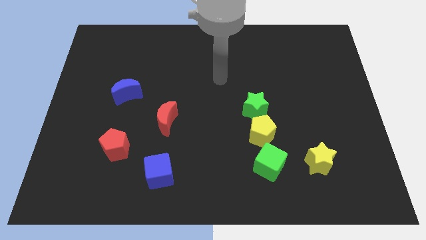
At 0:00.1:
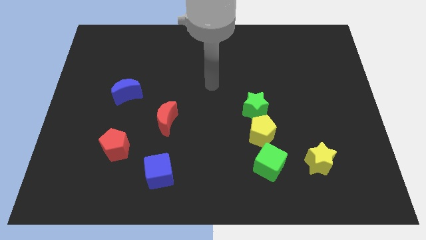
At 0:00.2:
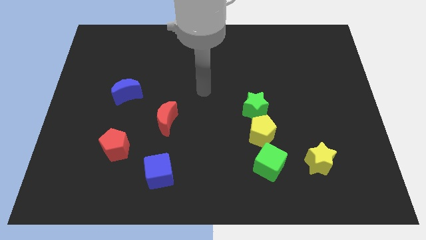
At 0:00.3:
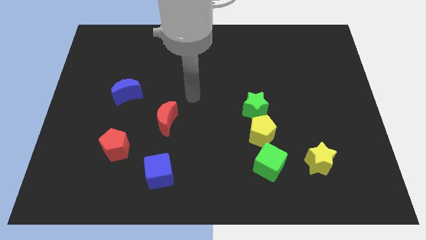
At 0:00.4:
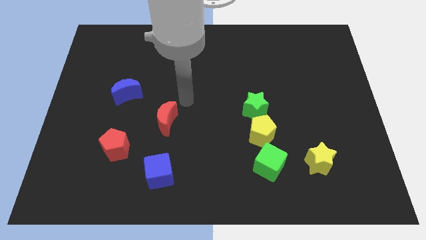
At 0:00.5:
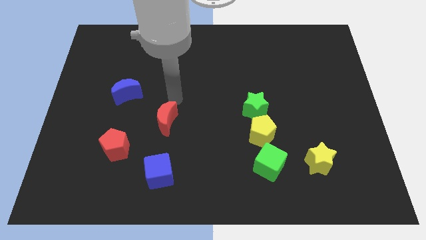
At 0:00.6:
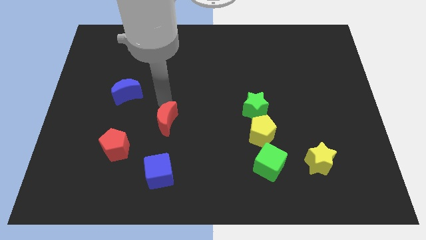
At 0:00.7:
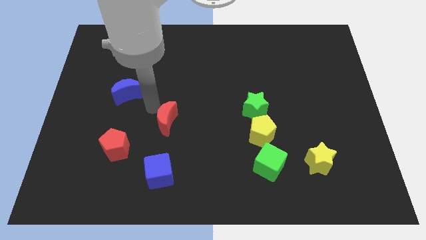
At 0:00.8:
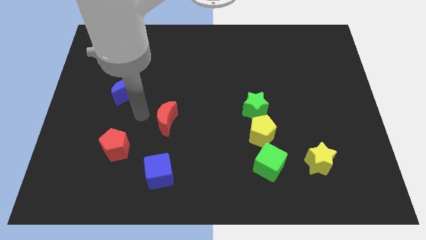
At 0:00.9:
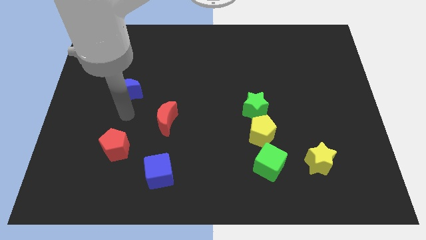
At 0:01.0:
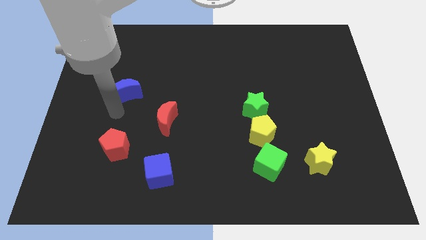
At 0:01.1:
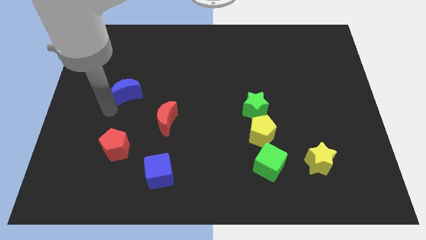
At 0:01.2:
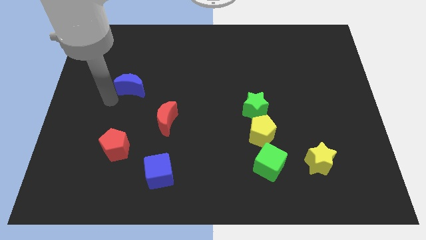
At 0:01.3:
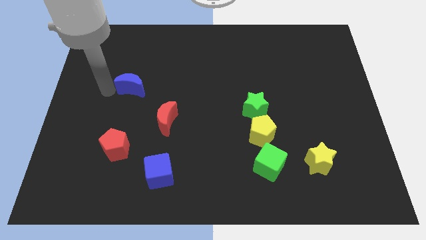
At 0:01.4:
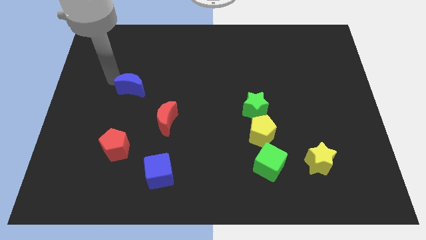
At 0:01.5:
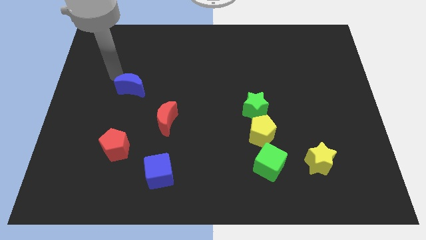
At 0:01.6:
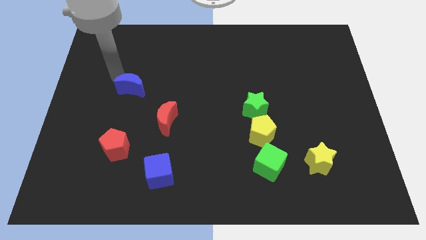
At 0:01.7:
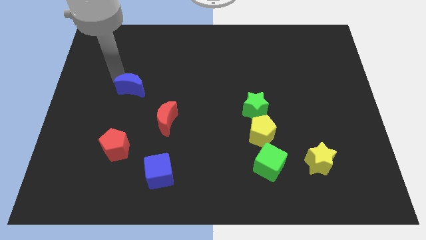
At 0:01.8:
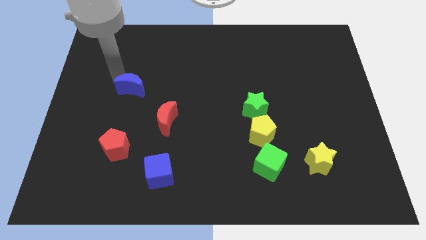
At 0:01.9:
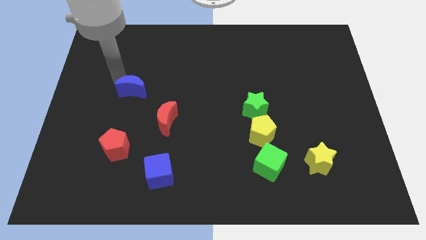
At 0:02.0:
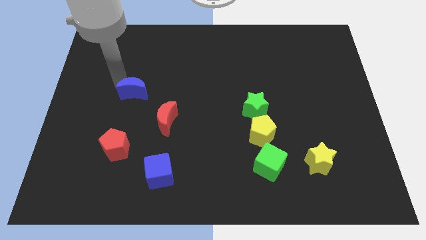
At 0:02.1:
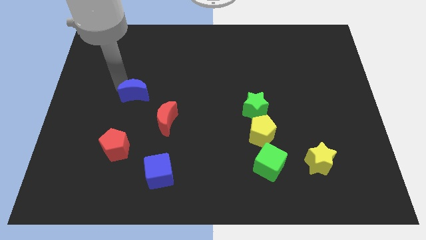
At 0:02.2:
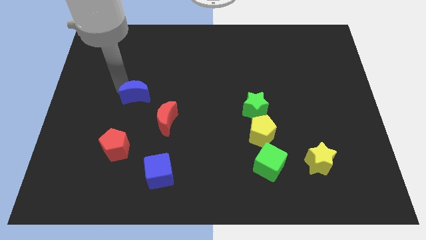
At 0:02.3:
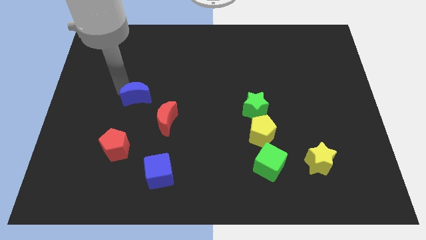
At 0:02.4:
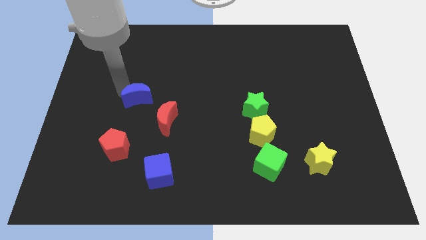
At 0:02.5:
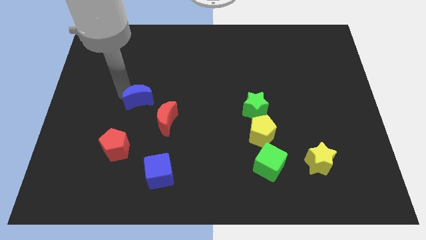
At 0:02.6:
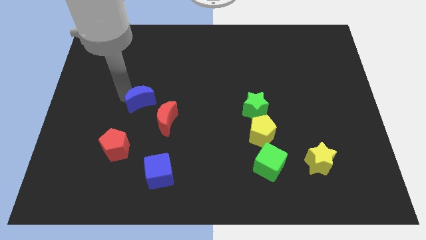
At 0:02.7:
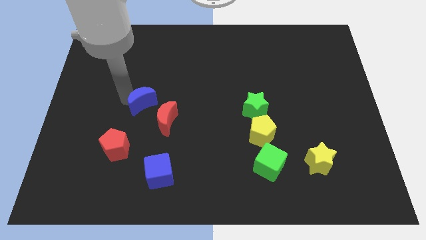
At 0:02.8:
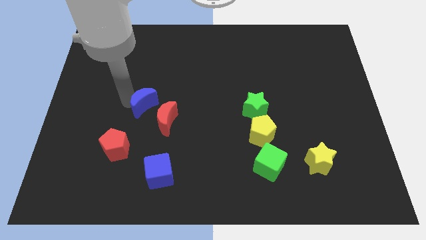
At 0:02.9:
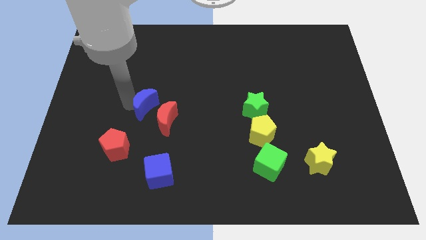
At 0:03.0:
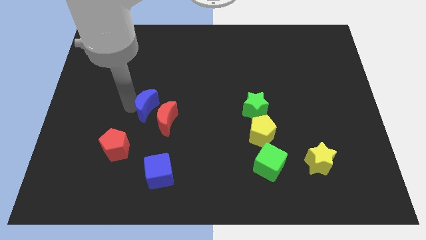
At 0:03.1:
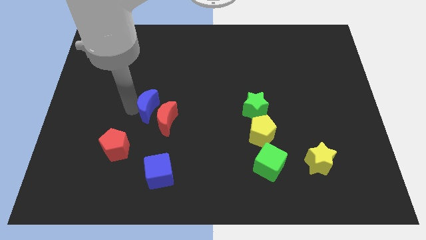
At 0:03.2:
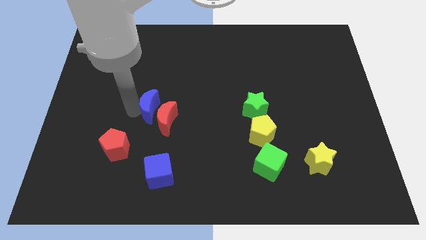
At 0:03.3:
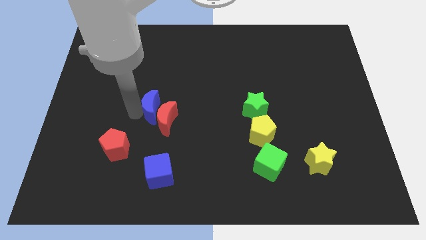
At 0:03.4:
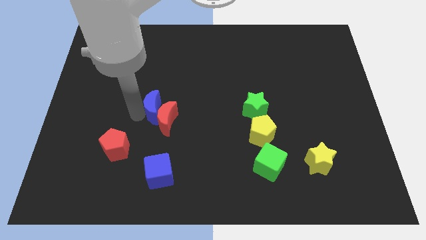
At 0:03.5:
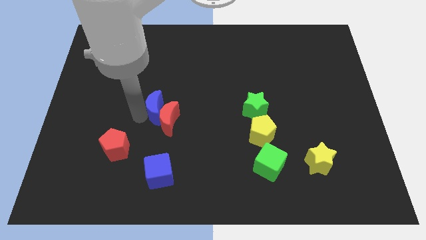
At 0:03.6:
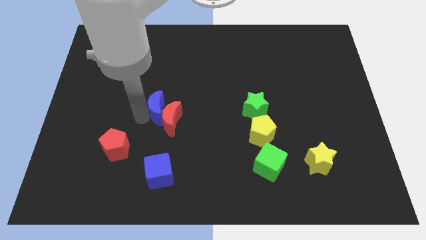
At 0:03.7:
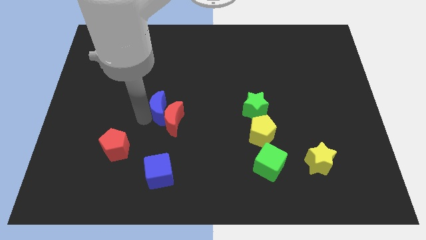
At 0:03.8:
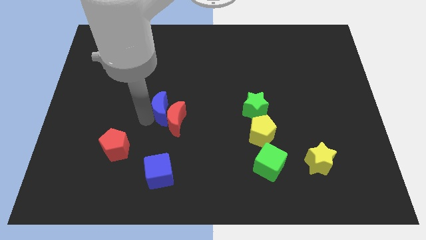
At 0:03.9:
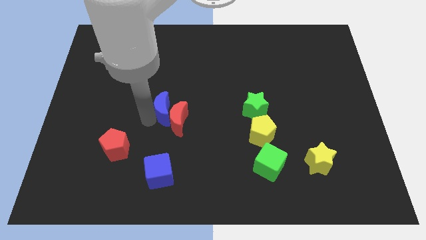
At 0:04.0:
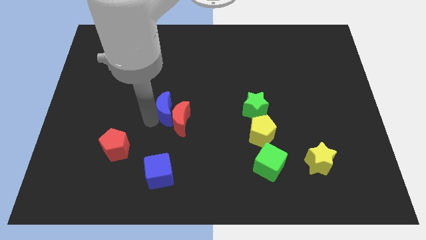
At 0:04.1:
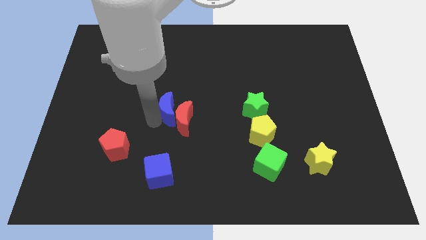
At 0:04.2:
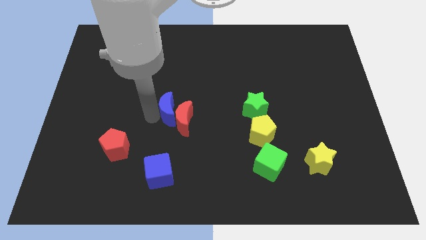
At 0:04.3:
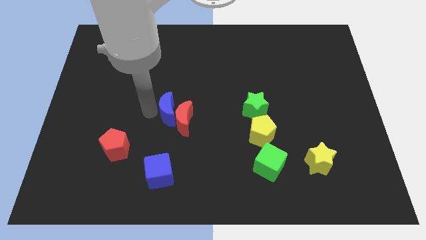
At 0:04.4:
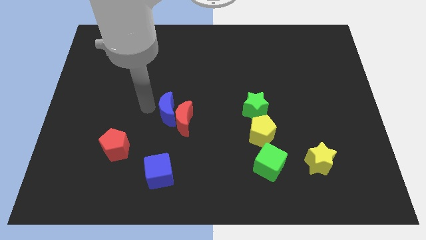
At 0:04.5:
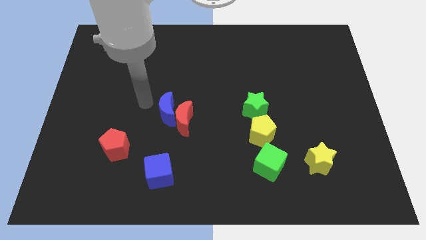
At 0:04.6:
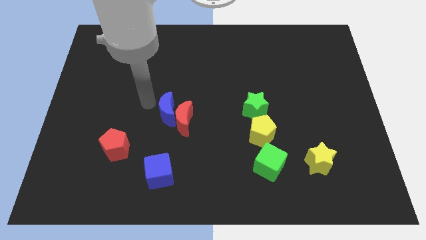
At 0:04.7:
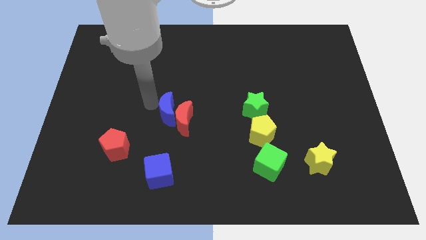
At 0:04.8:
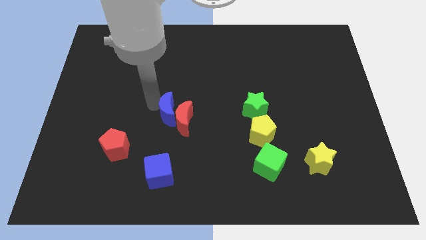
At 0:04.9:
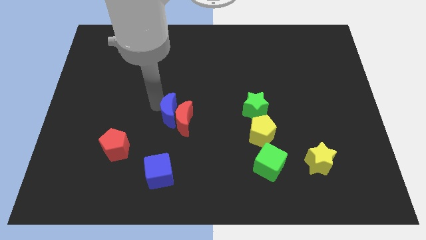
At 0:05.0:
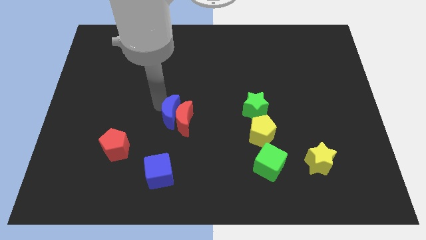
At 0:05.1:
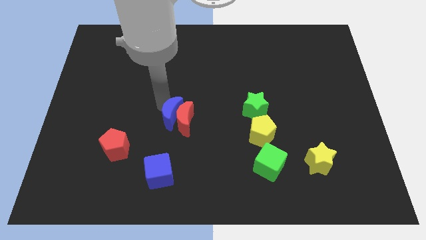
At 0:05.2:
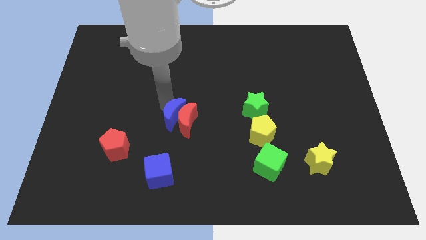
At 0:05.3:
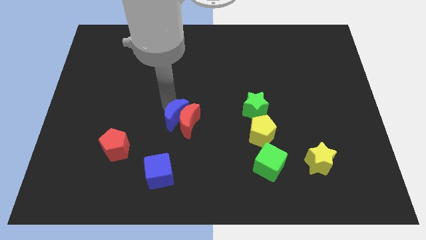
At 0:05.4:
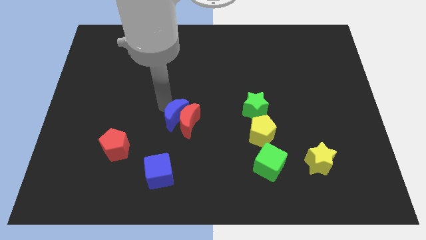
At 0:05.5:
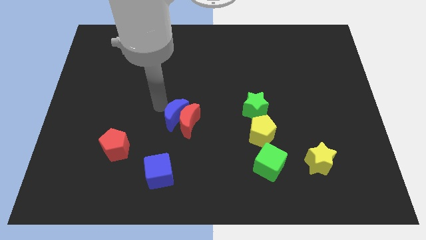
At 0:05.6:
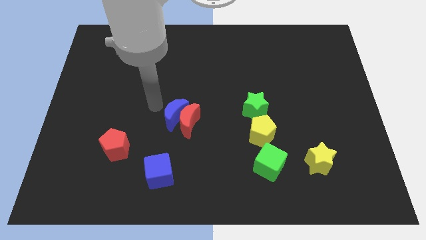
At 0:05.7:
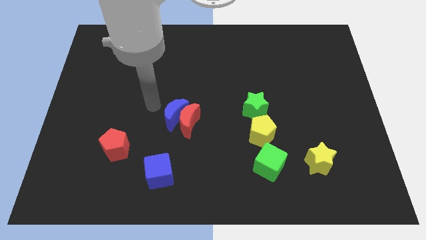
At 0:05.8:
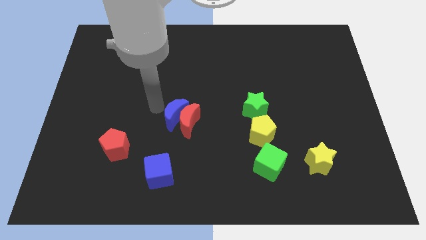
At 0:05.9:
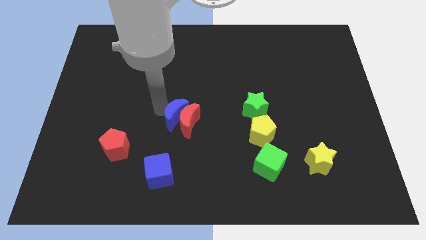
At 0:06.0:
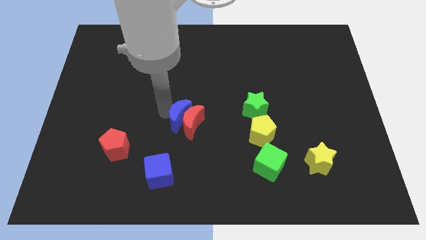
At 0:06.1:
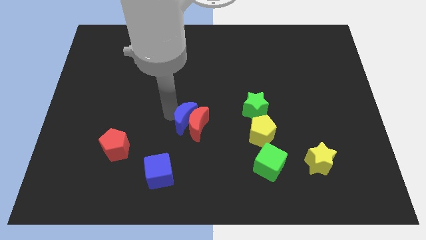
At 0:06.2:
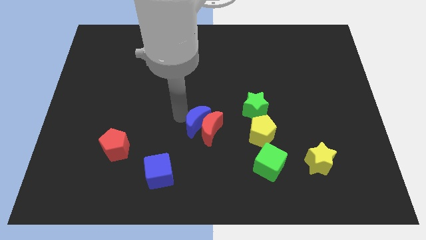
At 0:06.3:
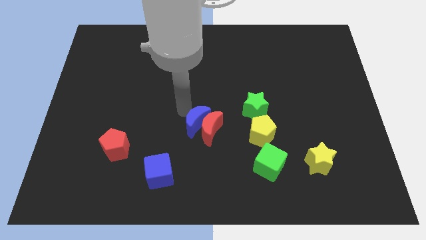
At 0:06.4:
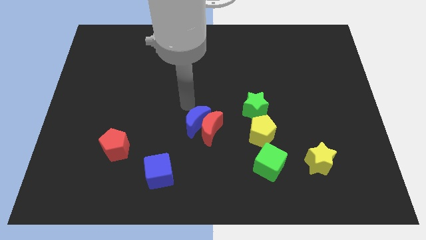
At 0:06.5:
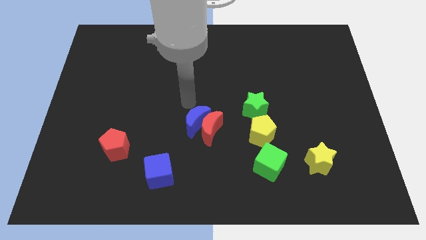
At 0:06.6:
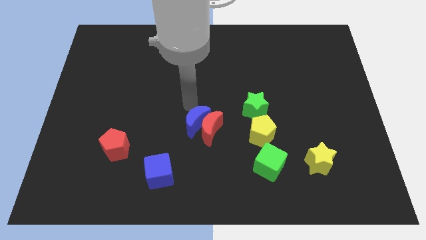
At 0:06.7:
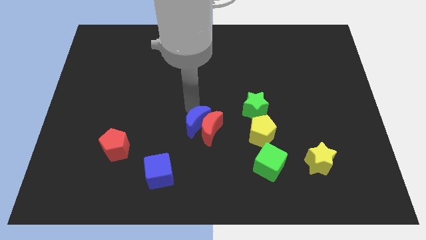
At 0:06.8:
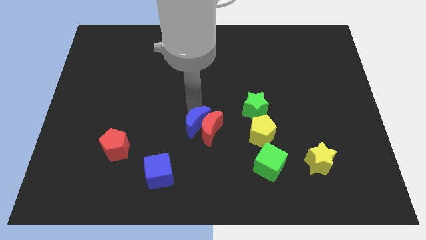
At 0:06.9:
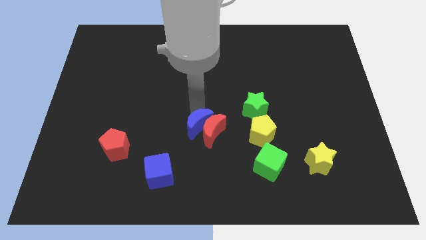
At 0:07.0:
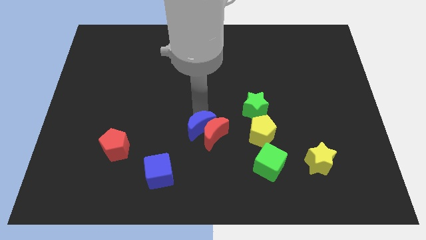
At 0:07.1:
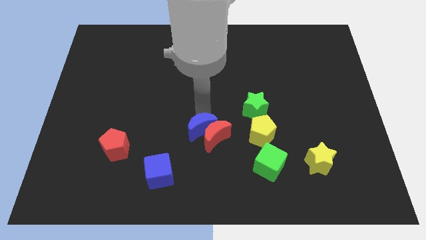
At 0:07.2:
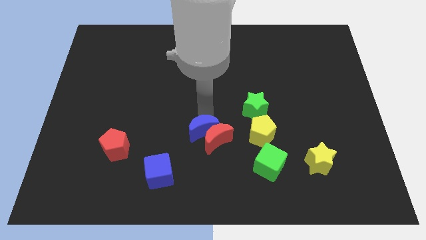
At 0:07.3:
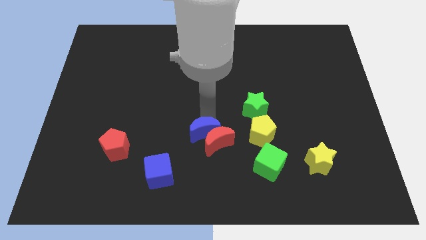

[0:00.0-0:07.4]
move the blue moon diagonally downwards and right

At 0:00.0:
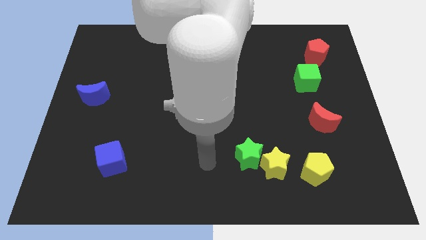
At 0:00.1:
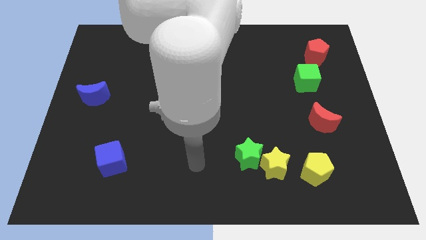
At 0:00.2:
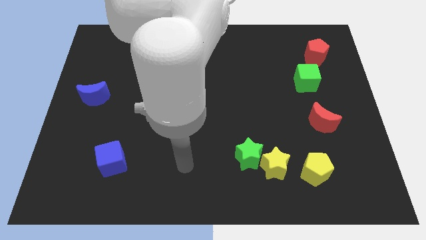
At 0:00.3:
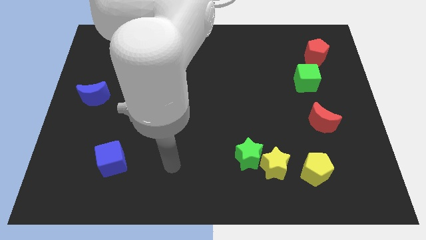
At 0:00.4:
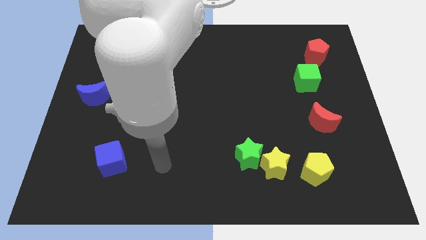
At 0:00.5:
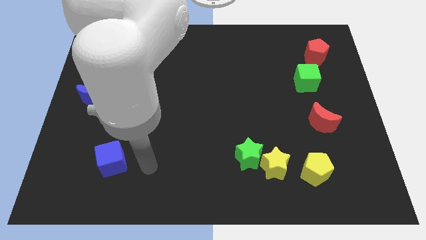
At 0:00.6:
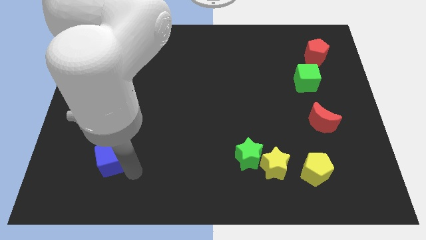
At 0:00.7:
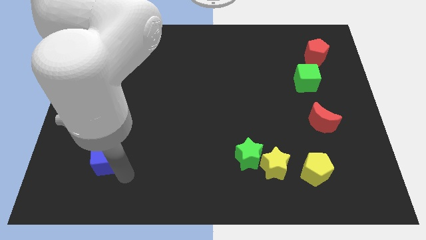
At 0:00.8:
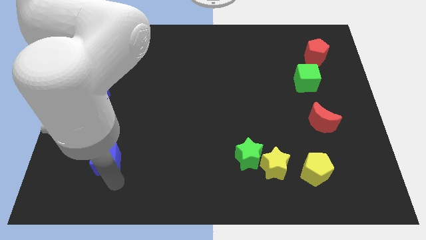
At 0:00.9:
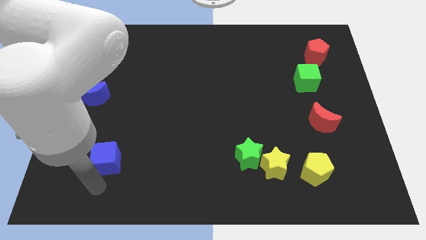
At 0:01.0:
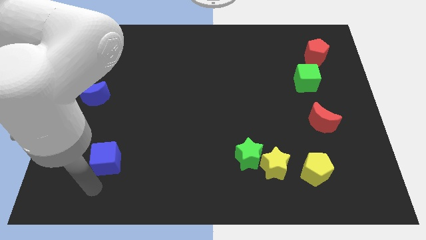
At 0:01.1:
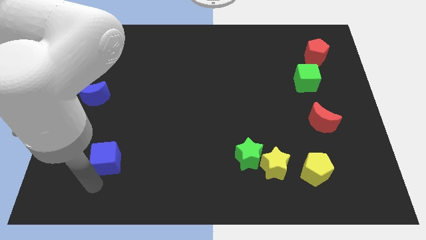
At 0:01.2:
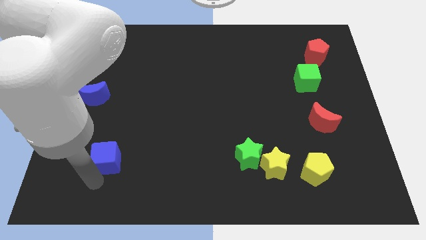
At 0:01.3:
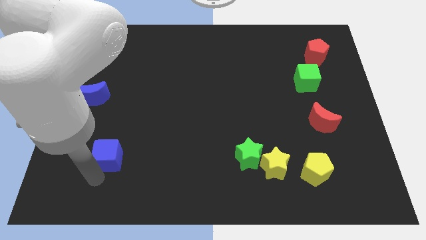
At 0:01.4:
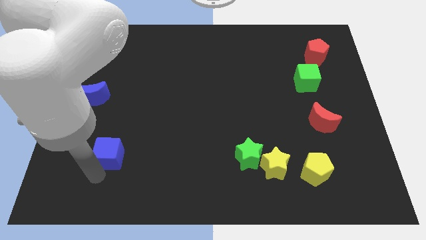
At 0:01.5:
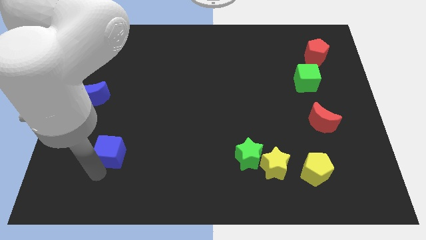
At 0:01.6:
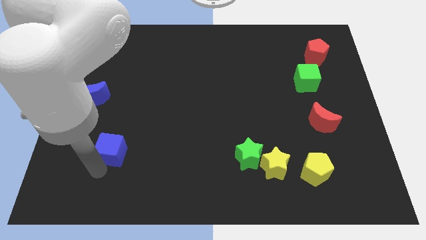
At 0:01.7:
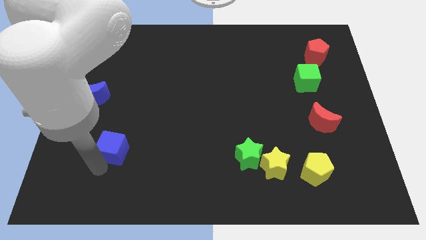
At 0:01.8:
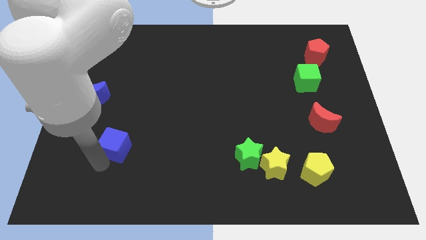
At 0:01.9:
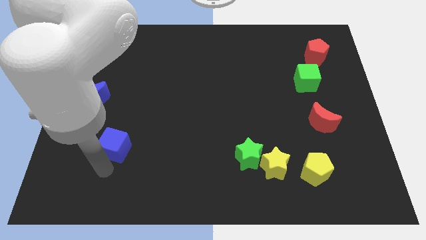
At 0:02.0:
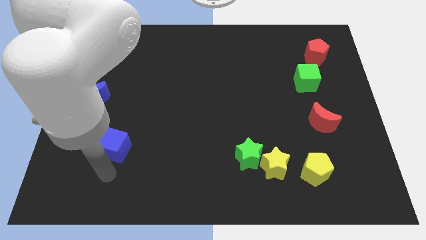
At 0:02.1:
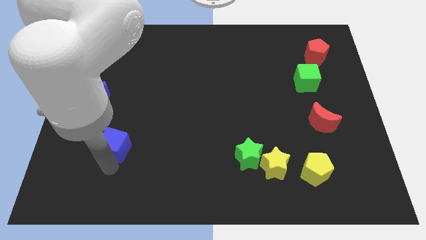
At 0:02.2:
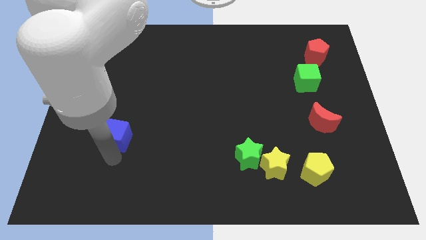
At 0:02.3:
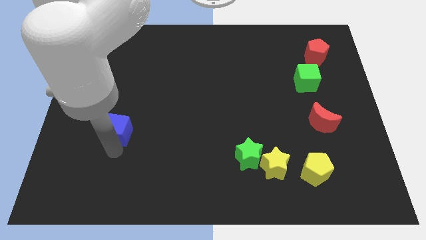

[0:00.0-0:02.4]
move the blue cube upwards a little bit
